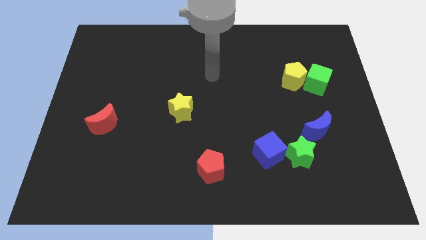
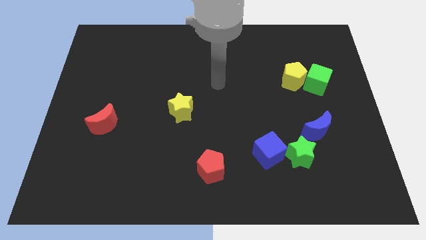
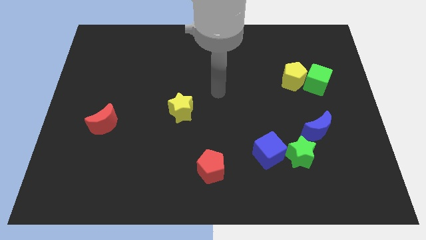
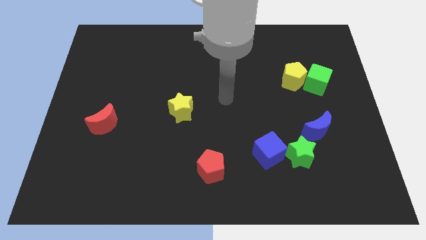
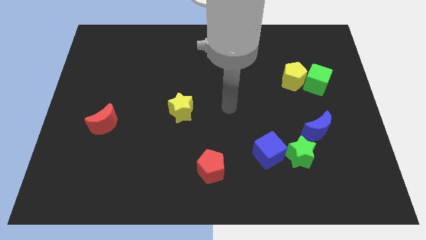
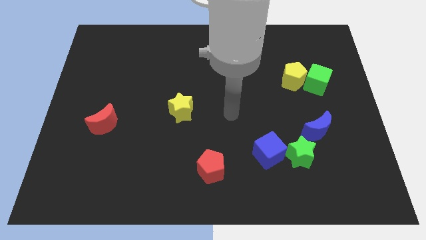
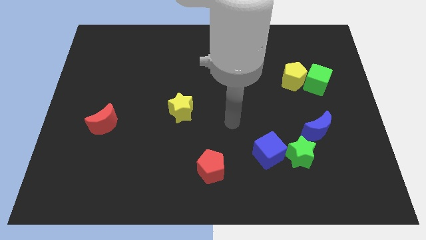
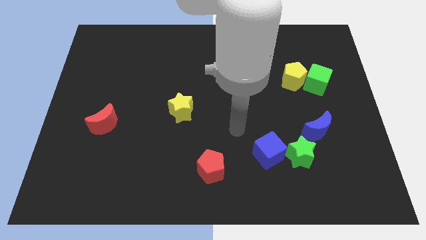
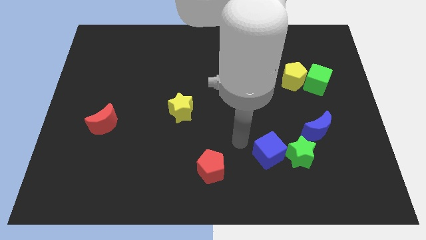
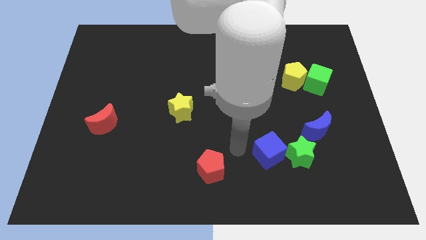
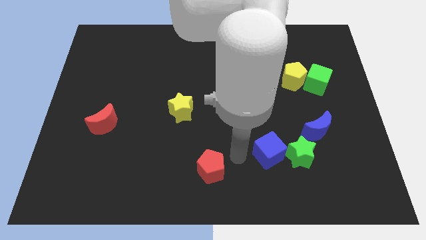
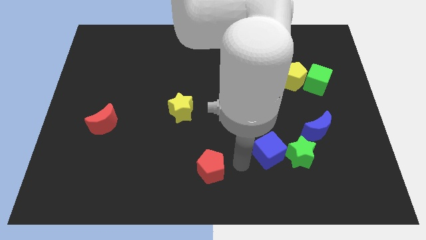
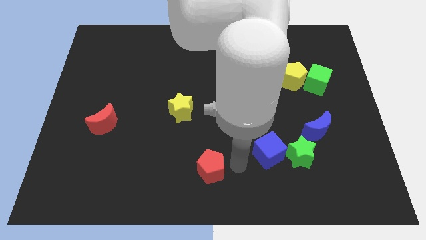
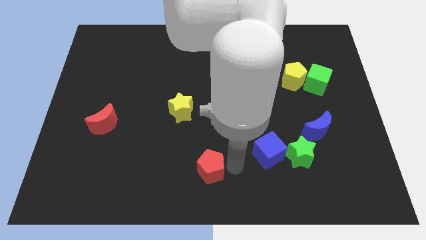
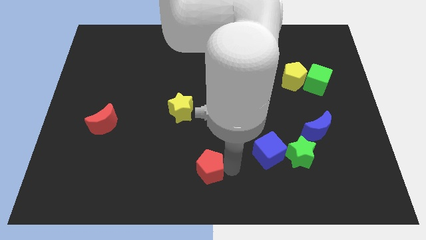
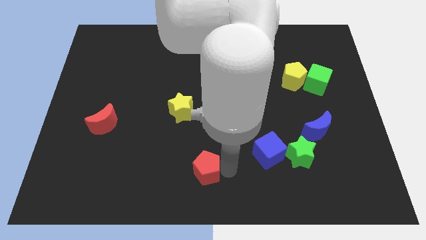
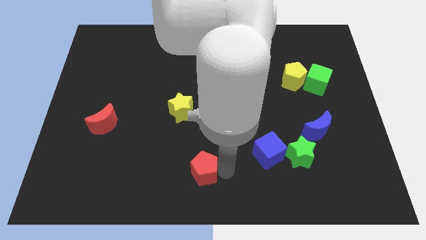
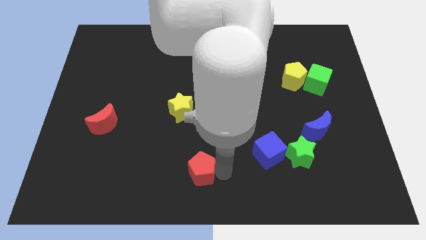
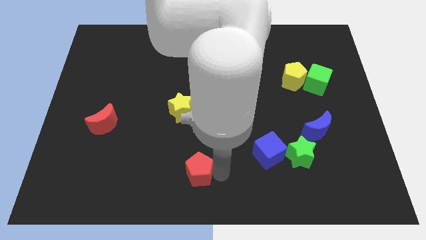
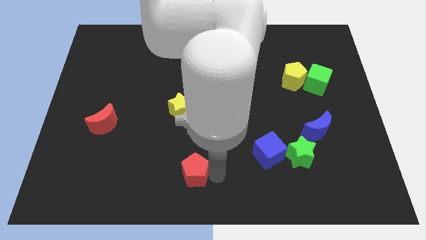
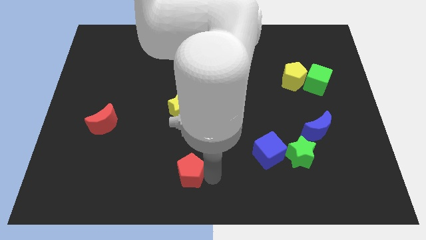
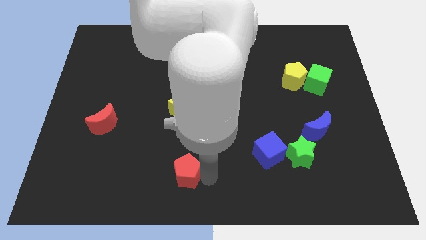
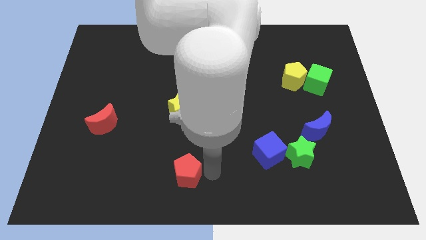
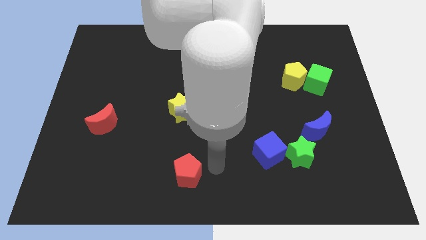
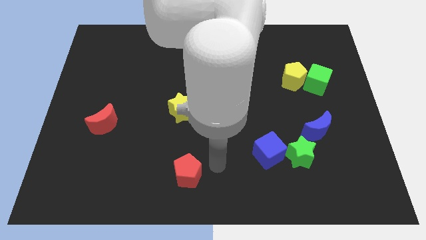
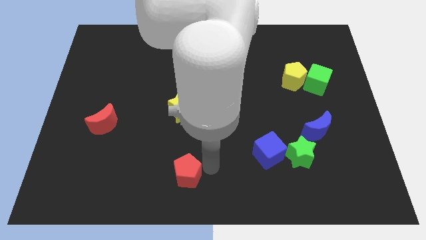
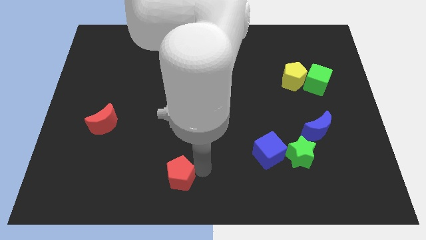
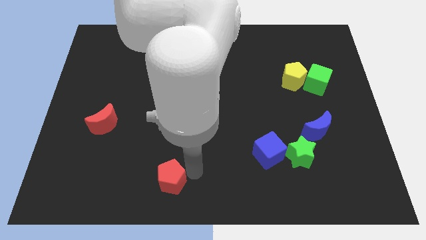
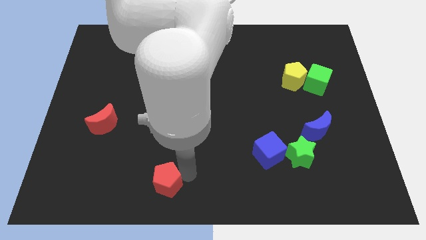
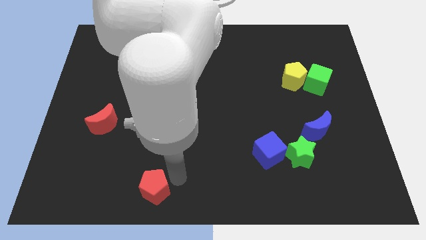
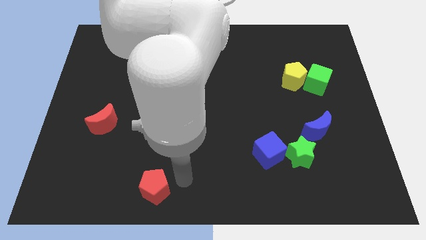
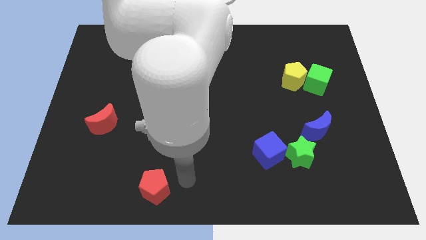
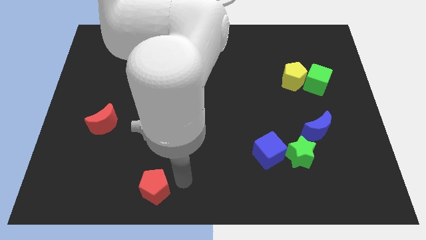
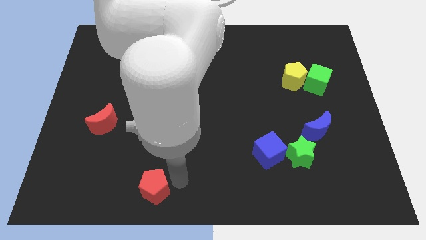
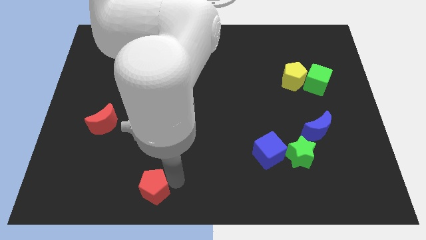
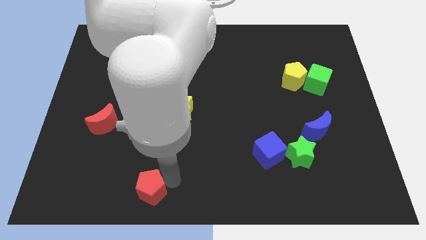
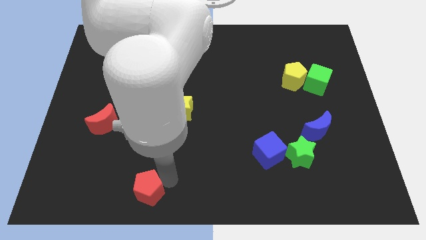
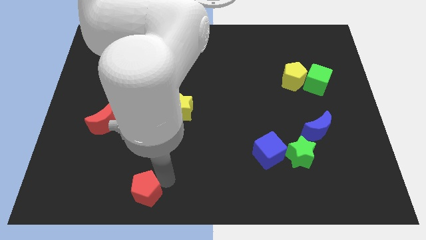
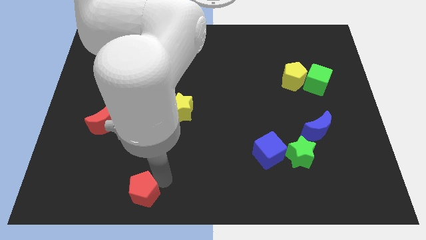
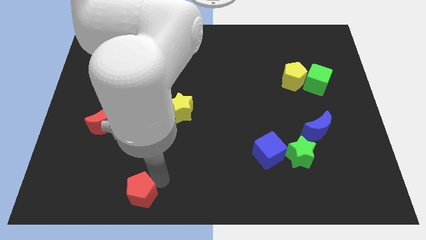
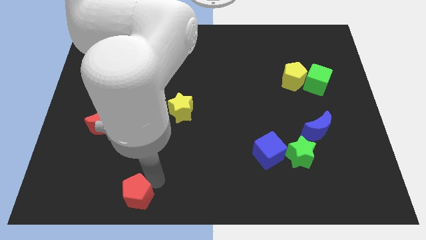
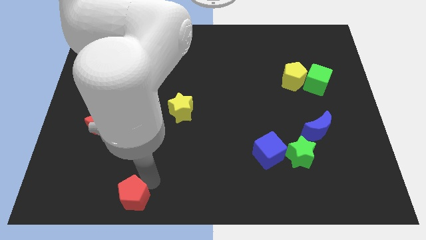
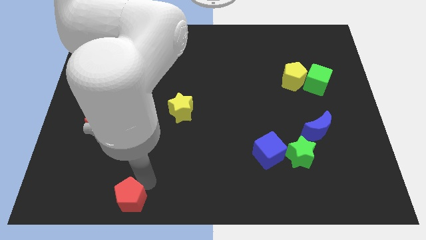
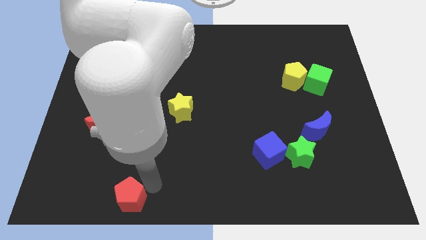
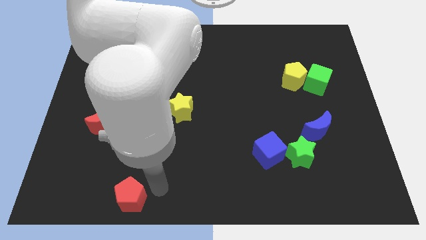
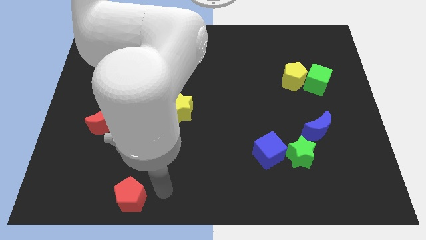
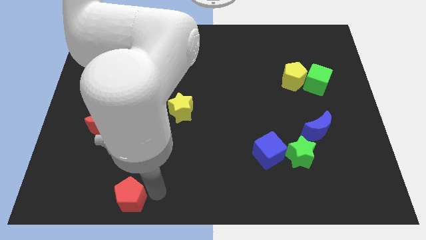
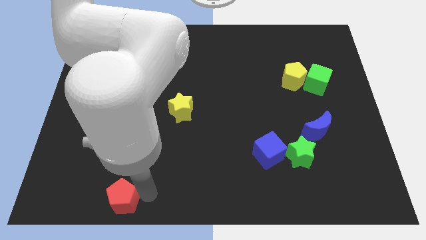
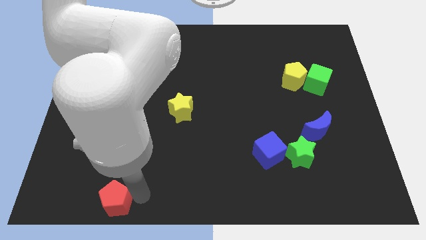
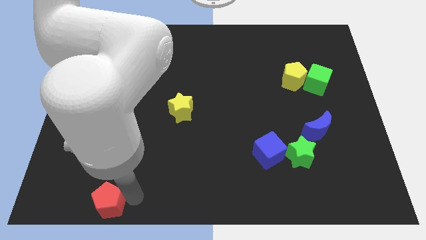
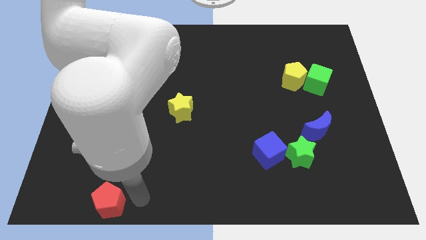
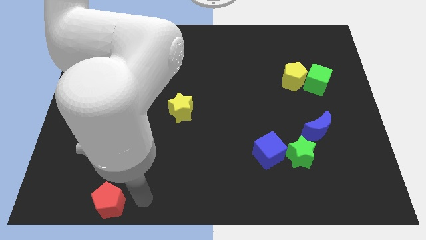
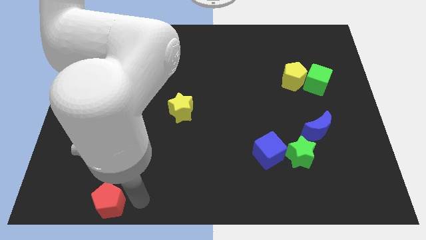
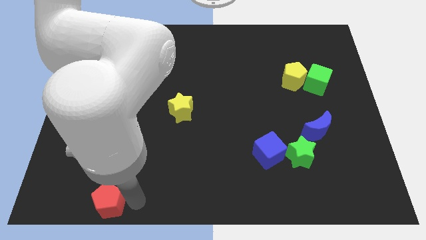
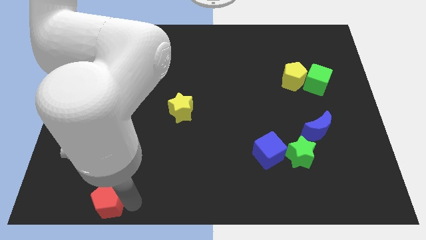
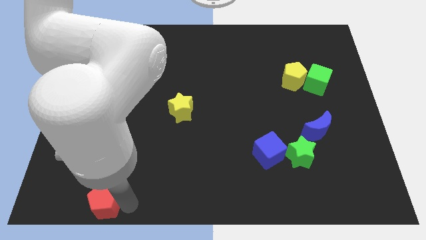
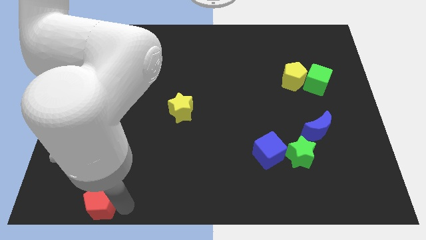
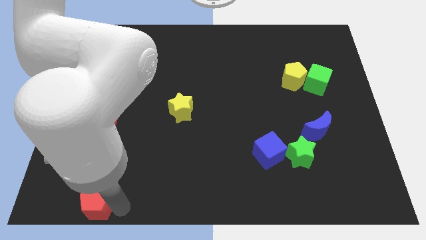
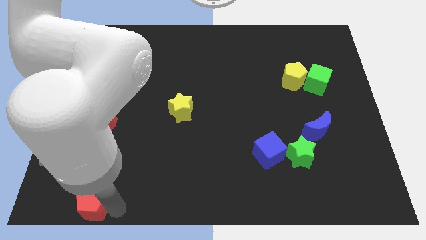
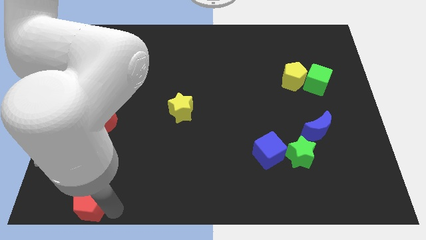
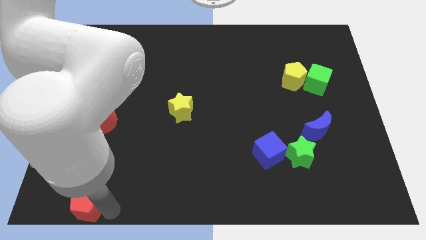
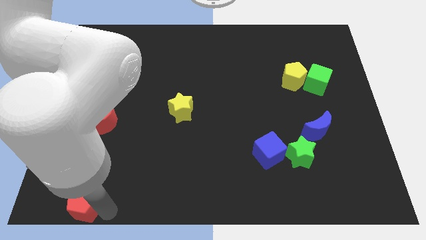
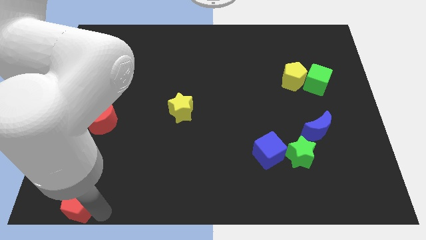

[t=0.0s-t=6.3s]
move the red pentagon to the lower left corner
